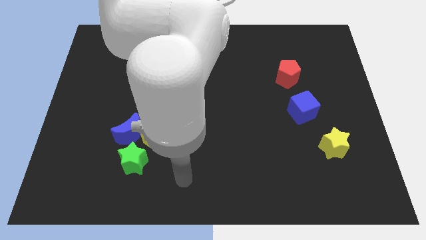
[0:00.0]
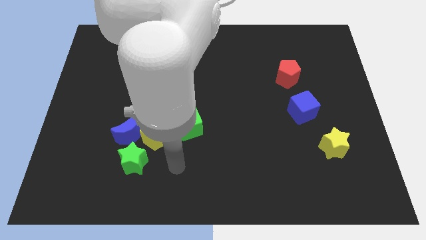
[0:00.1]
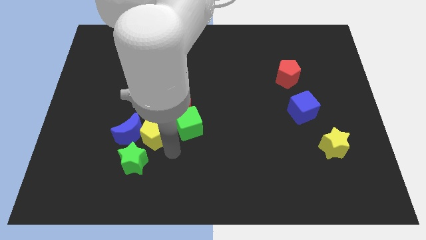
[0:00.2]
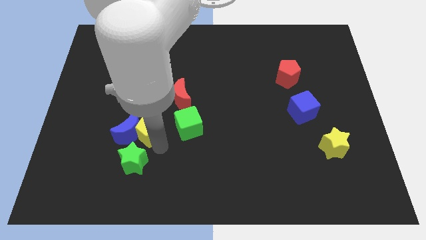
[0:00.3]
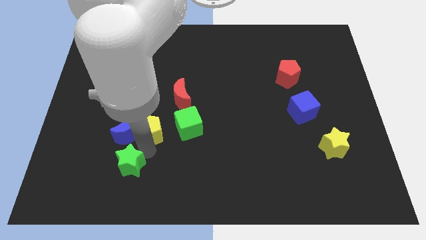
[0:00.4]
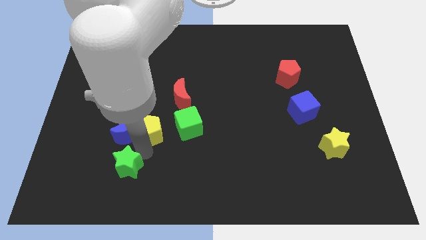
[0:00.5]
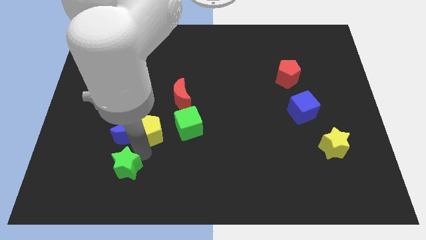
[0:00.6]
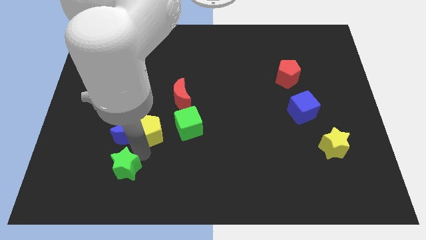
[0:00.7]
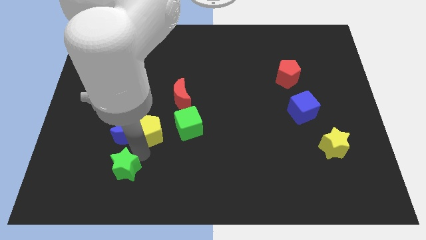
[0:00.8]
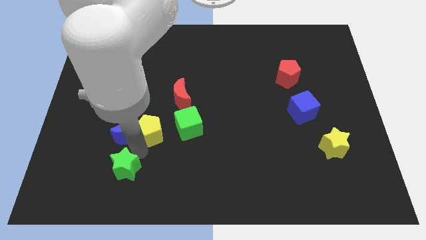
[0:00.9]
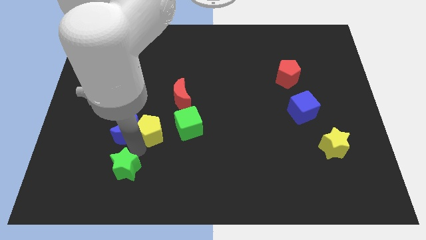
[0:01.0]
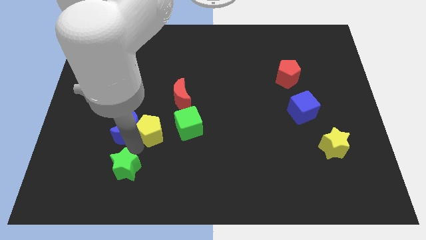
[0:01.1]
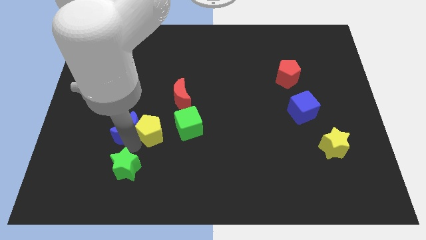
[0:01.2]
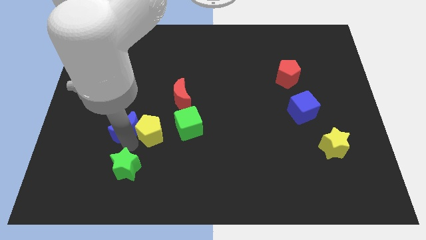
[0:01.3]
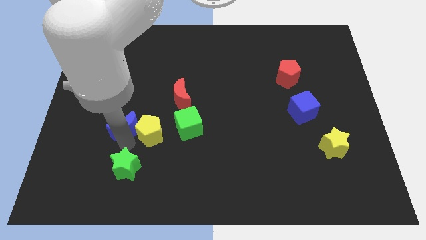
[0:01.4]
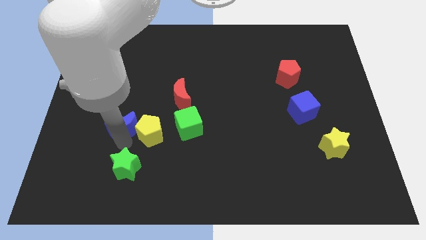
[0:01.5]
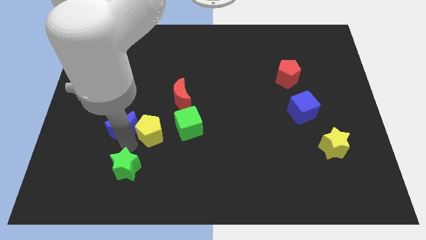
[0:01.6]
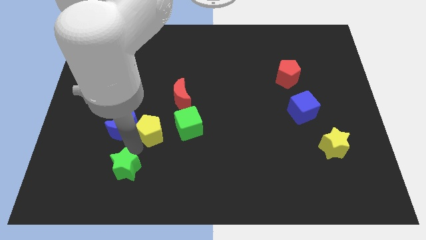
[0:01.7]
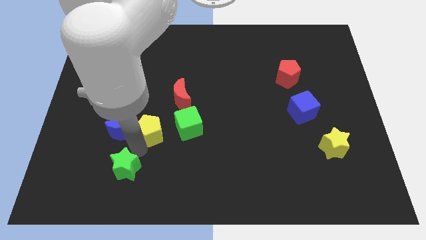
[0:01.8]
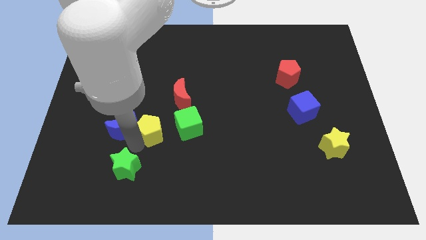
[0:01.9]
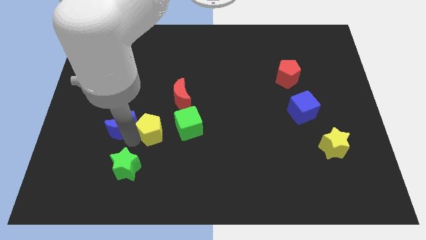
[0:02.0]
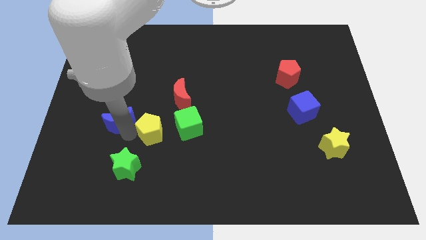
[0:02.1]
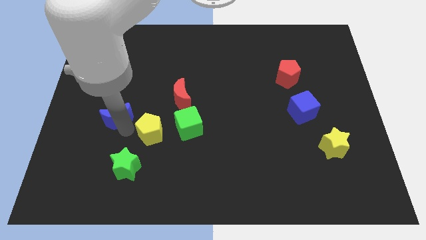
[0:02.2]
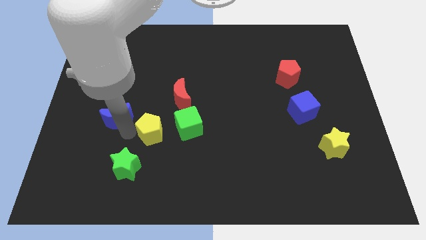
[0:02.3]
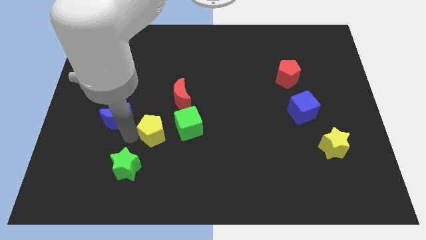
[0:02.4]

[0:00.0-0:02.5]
separate the blue moon from the yellow pentagon and green star

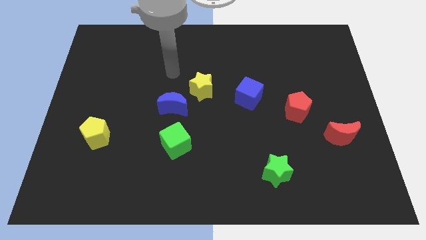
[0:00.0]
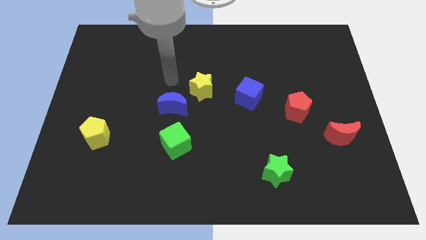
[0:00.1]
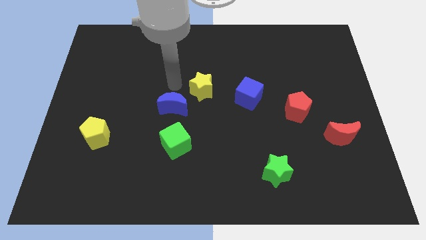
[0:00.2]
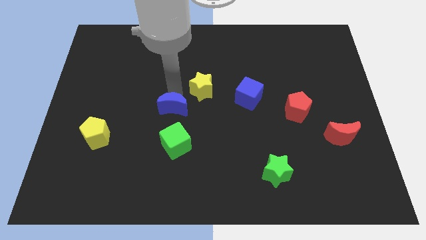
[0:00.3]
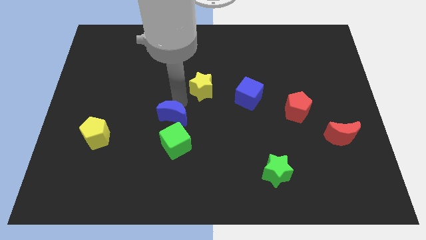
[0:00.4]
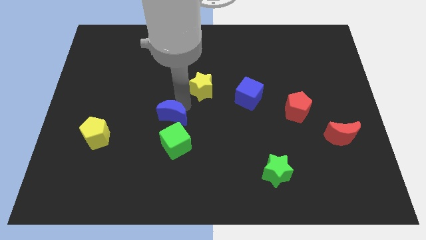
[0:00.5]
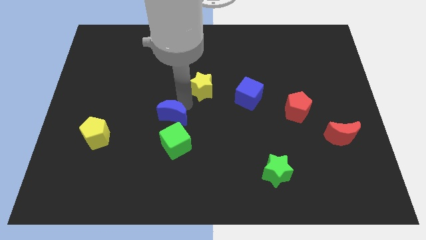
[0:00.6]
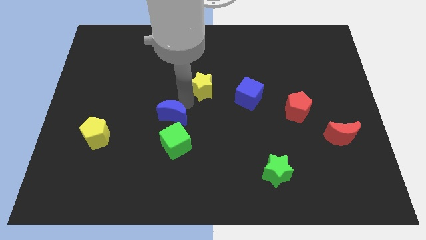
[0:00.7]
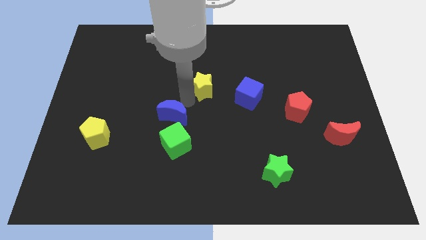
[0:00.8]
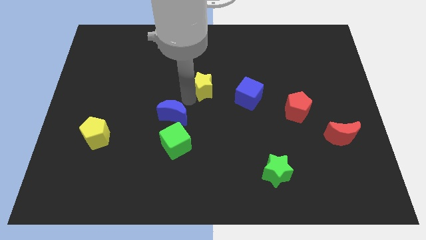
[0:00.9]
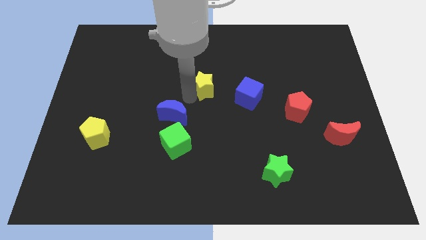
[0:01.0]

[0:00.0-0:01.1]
pull the yellow star apart from the blue moon

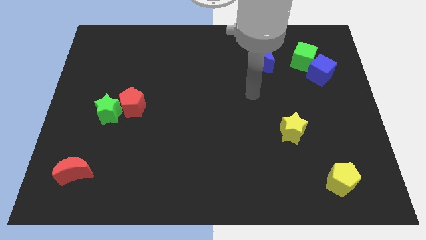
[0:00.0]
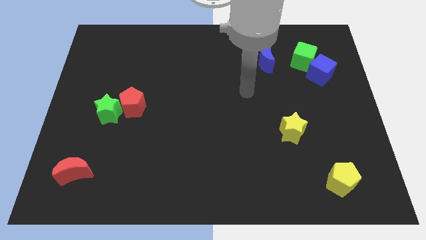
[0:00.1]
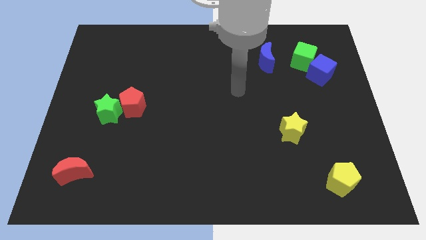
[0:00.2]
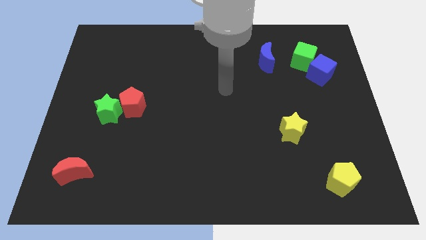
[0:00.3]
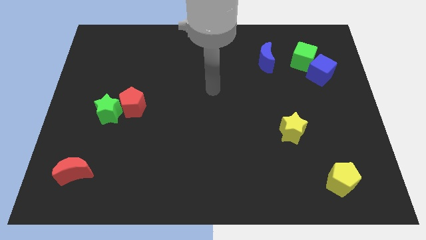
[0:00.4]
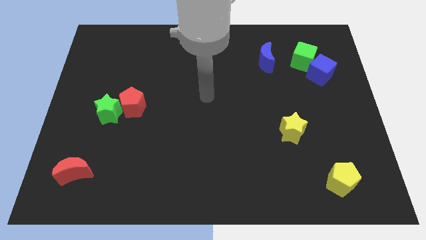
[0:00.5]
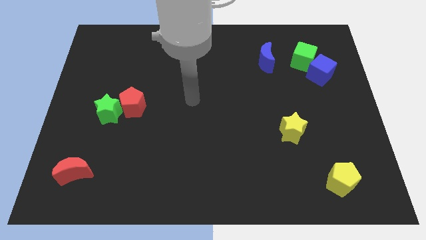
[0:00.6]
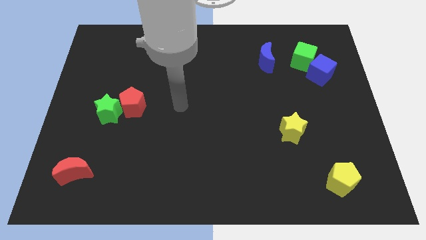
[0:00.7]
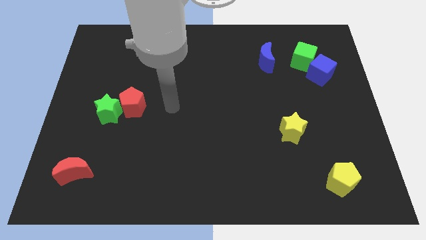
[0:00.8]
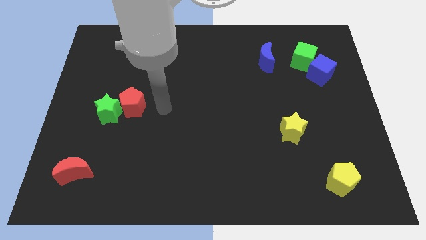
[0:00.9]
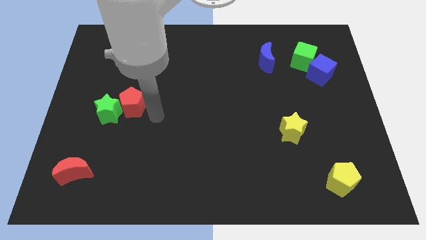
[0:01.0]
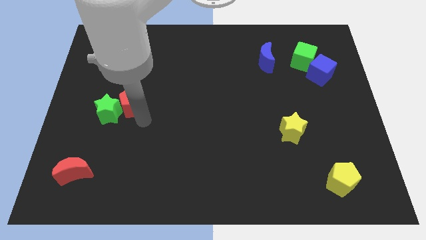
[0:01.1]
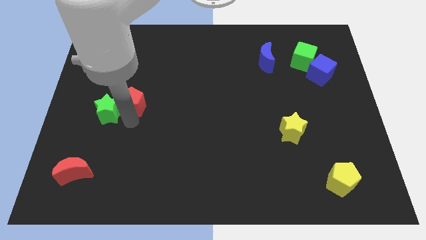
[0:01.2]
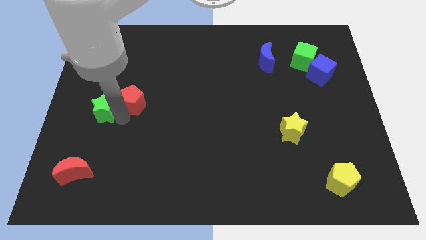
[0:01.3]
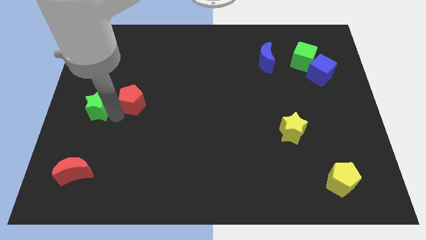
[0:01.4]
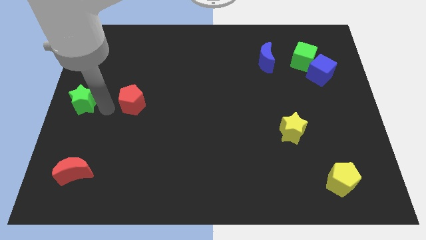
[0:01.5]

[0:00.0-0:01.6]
pull the red pentagon apart from the green star

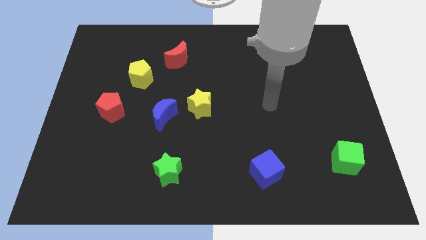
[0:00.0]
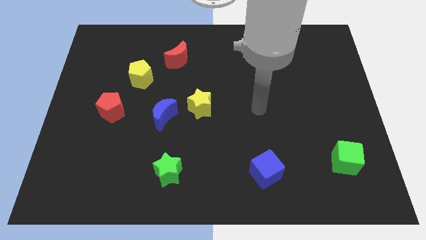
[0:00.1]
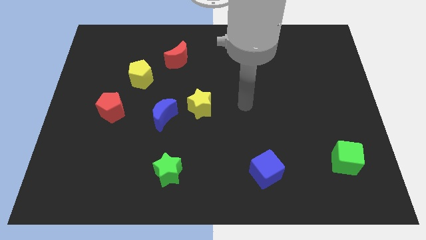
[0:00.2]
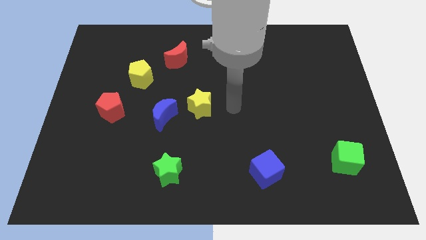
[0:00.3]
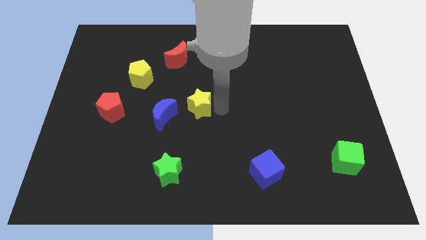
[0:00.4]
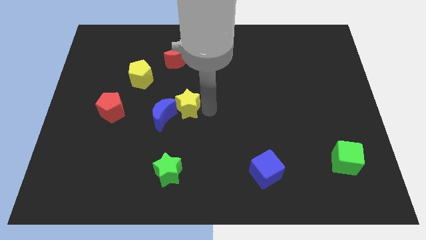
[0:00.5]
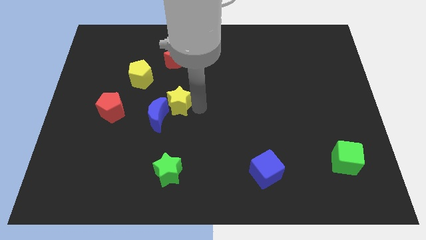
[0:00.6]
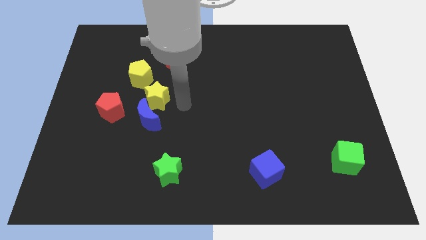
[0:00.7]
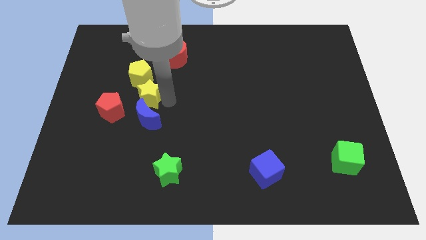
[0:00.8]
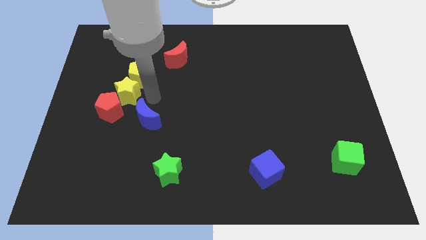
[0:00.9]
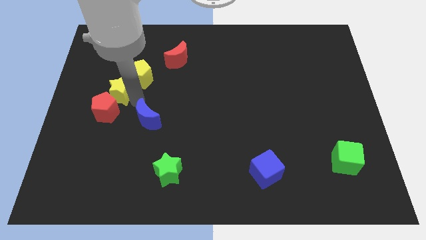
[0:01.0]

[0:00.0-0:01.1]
separate the blue moon from the yellow star

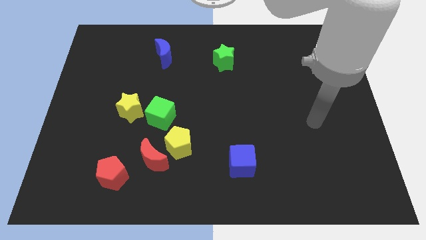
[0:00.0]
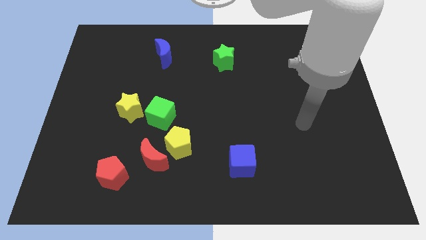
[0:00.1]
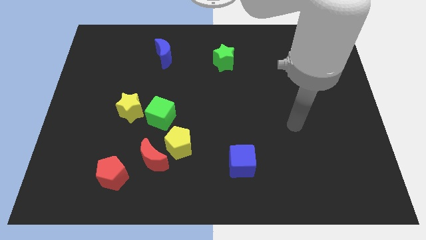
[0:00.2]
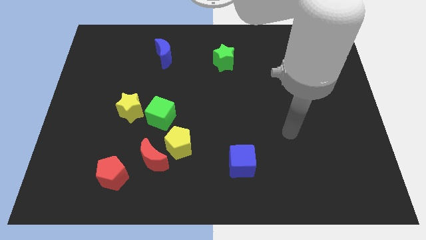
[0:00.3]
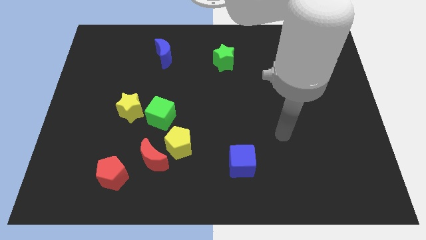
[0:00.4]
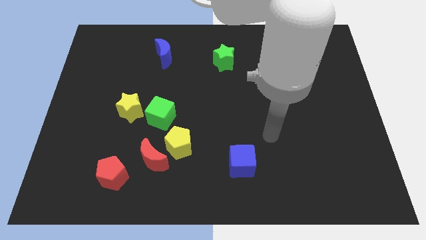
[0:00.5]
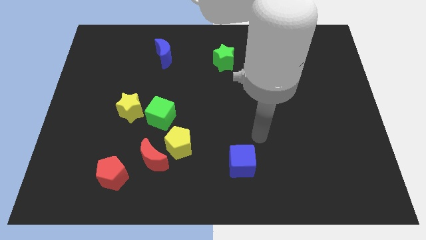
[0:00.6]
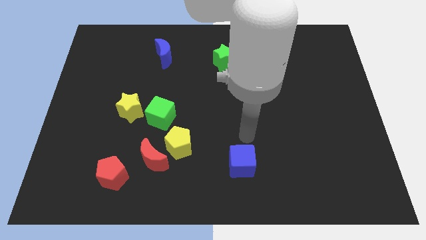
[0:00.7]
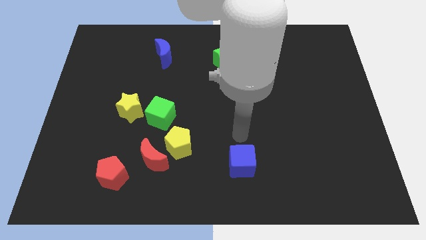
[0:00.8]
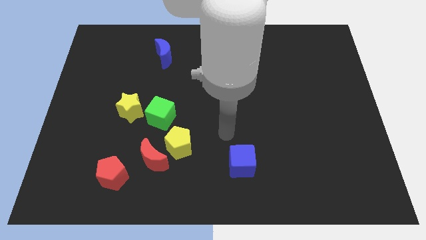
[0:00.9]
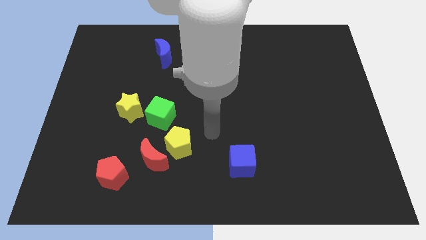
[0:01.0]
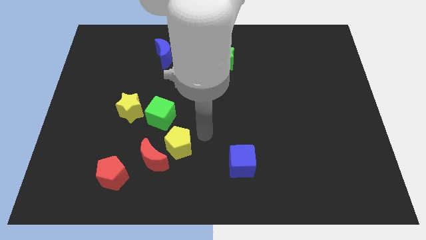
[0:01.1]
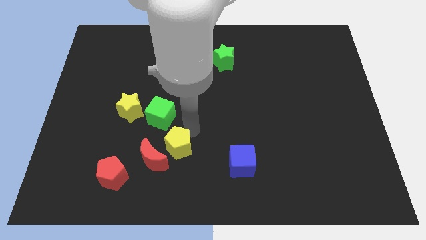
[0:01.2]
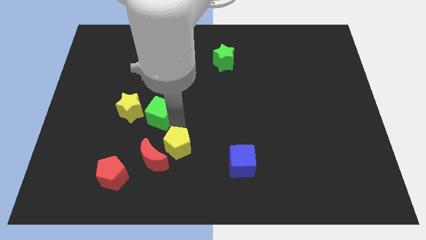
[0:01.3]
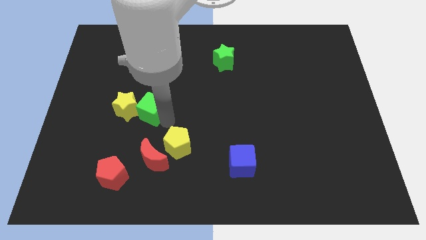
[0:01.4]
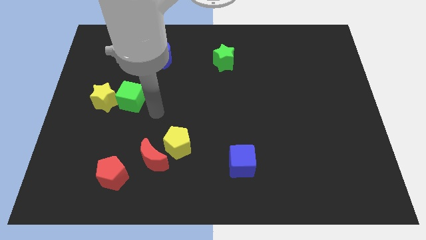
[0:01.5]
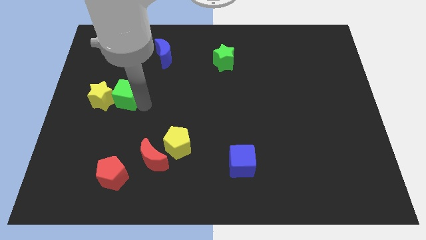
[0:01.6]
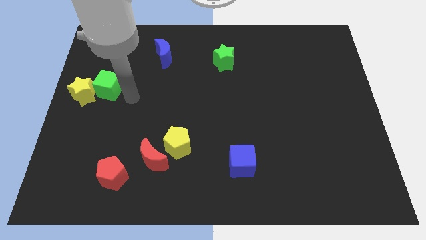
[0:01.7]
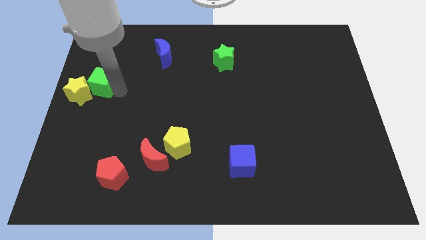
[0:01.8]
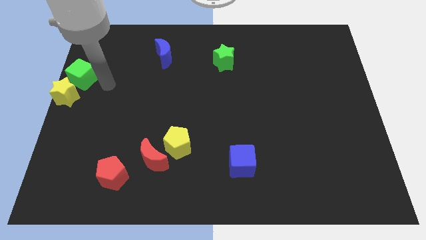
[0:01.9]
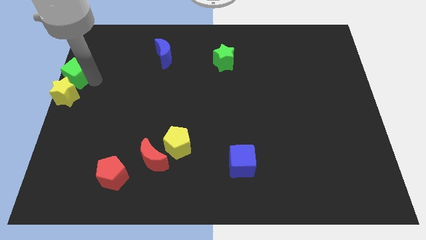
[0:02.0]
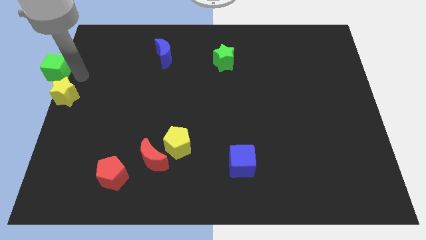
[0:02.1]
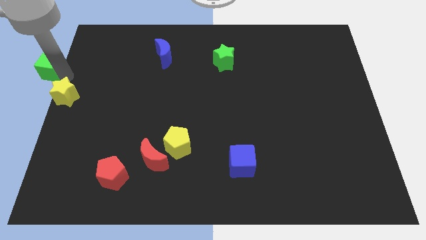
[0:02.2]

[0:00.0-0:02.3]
pull the yellow star apart from the green cube

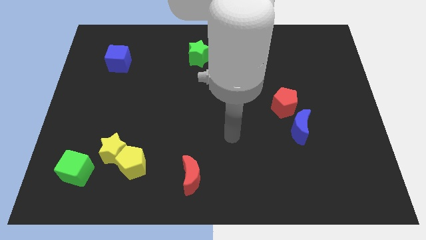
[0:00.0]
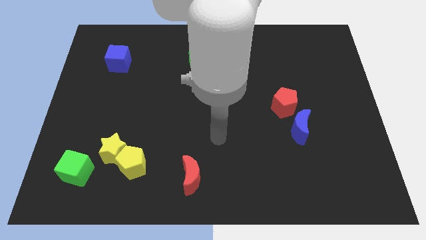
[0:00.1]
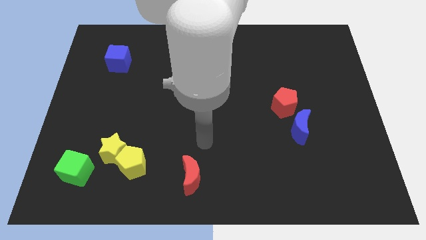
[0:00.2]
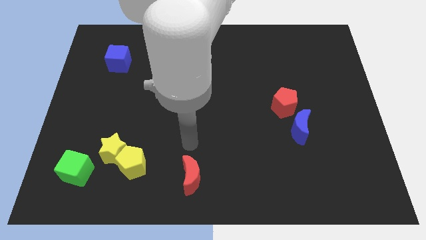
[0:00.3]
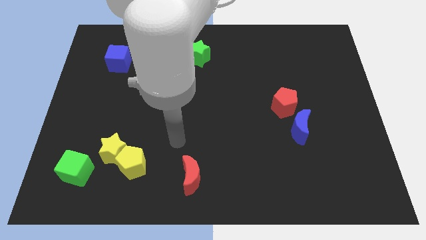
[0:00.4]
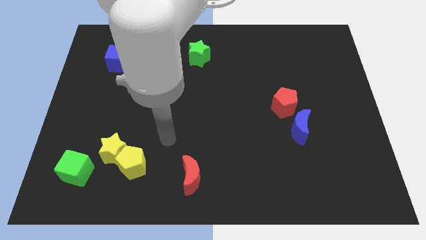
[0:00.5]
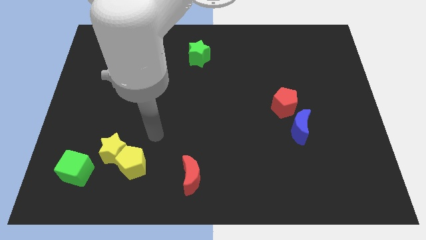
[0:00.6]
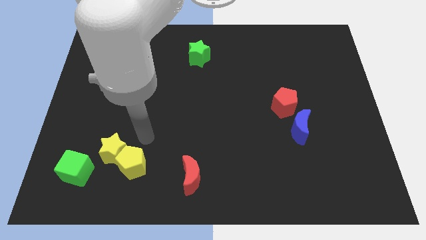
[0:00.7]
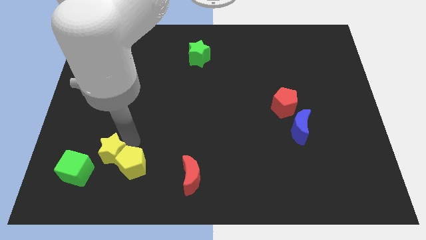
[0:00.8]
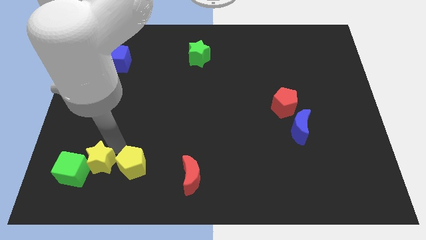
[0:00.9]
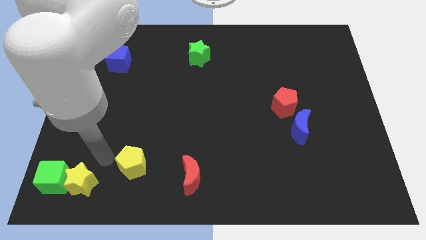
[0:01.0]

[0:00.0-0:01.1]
pull the yellow pentagon apart from the yellow star
